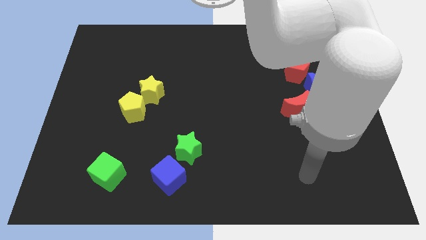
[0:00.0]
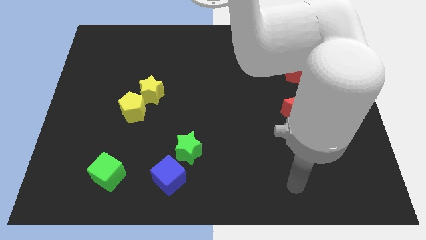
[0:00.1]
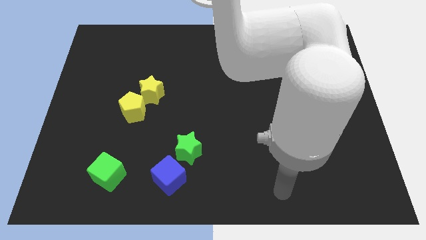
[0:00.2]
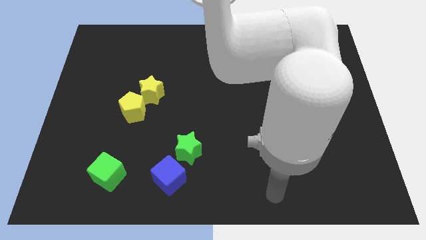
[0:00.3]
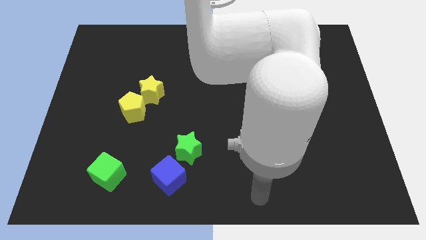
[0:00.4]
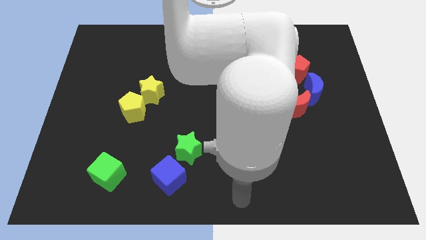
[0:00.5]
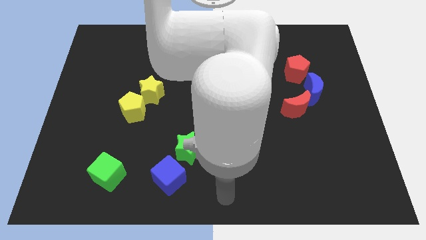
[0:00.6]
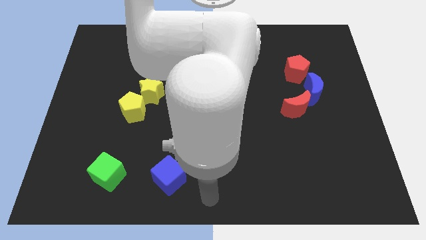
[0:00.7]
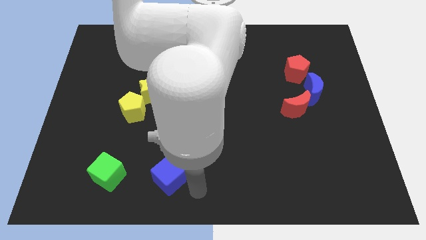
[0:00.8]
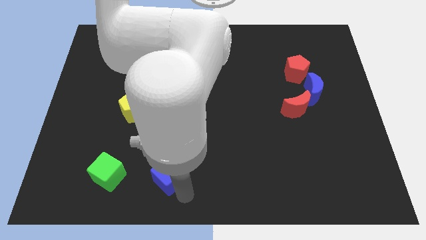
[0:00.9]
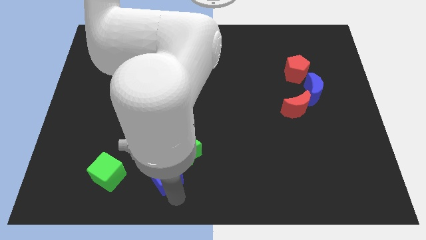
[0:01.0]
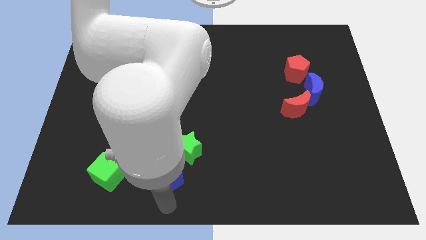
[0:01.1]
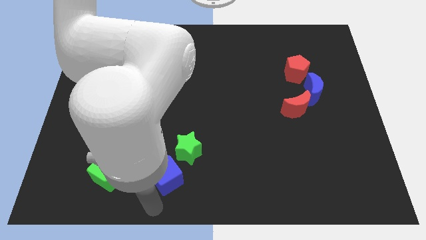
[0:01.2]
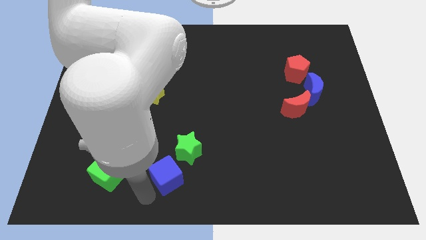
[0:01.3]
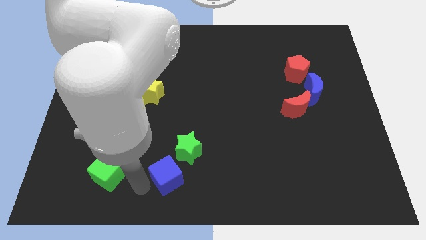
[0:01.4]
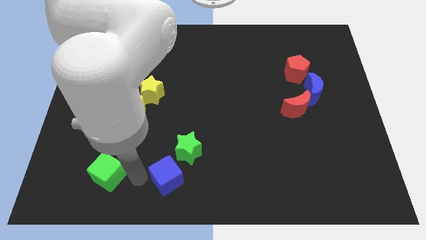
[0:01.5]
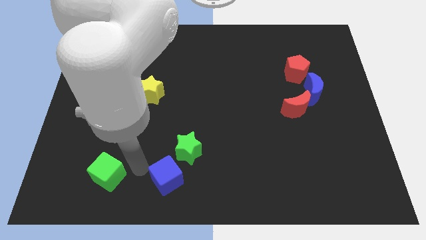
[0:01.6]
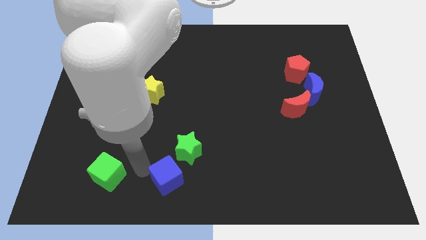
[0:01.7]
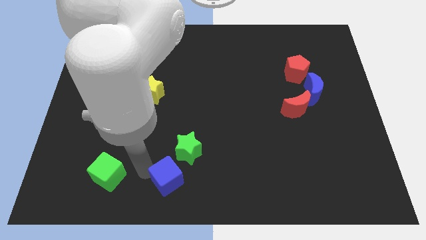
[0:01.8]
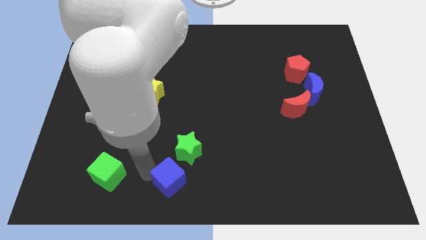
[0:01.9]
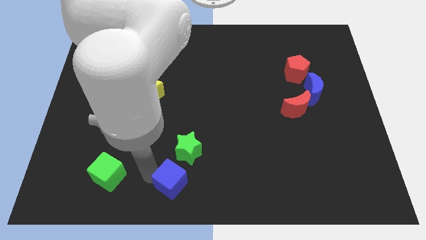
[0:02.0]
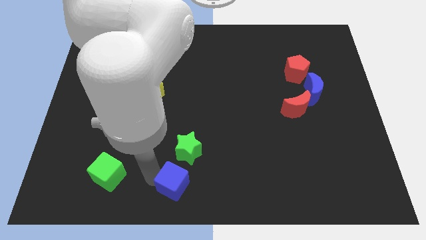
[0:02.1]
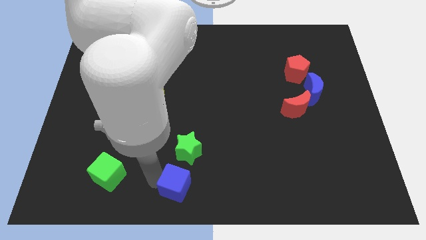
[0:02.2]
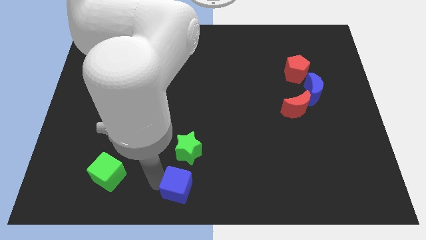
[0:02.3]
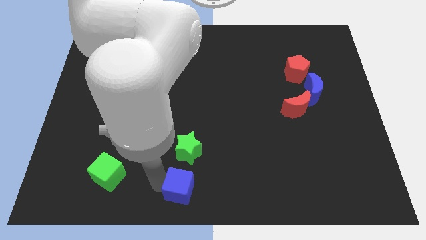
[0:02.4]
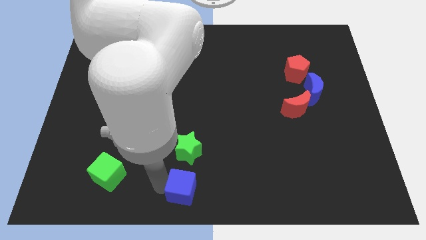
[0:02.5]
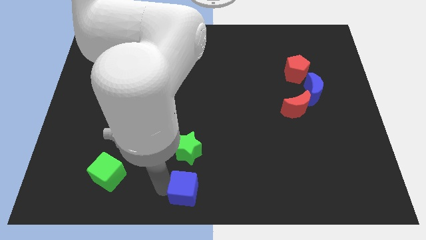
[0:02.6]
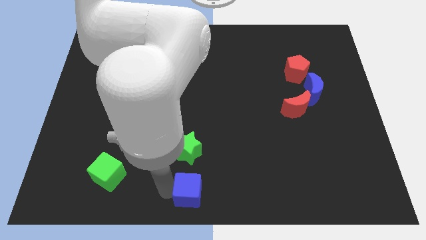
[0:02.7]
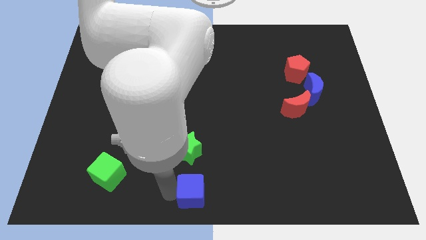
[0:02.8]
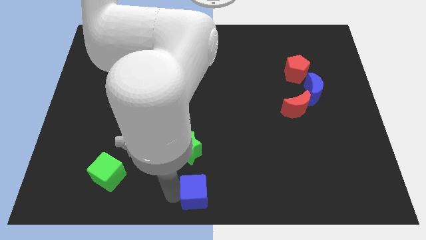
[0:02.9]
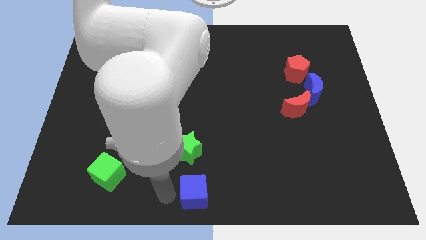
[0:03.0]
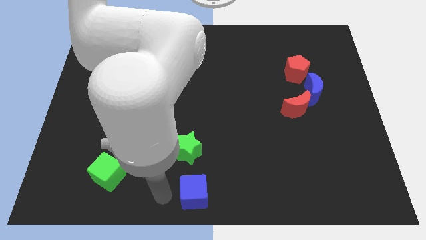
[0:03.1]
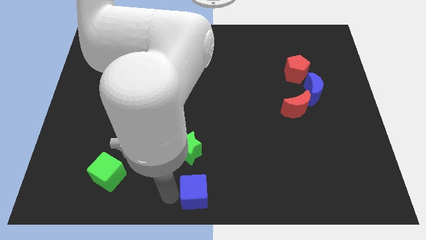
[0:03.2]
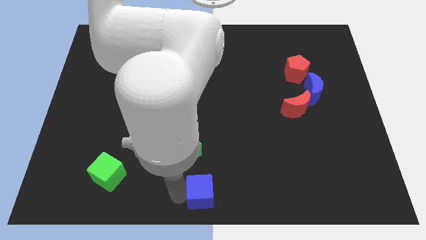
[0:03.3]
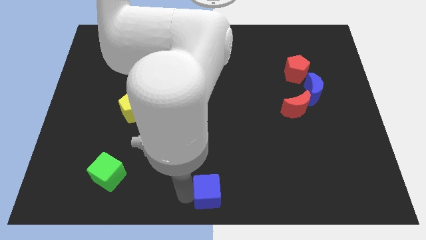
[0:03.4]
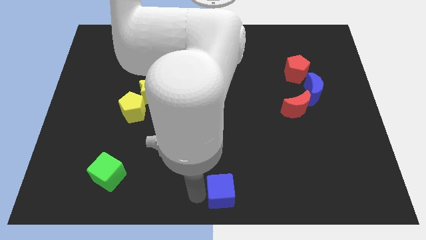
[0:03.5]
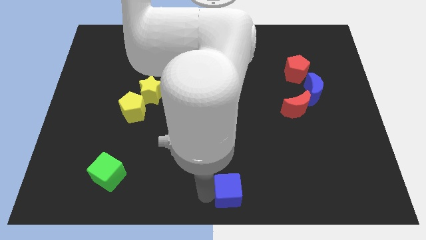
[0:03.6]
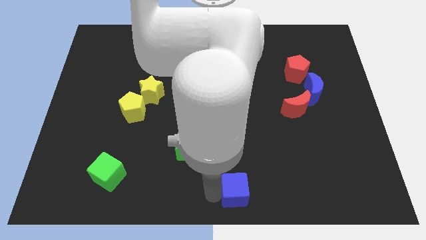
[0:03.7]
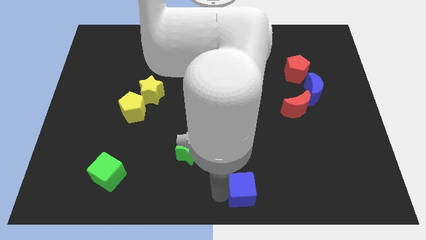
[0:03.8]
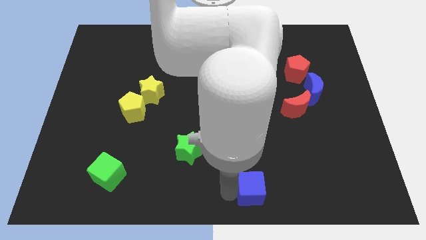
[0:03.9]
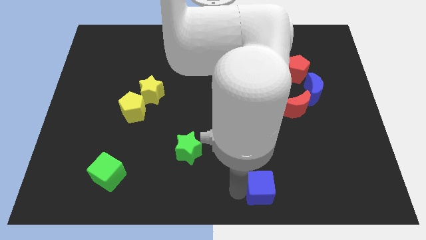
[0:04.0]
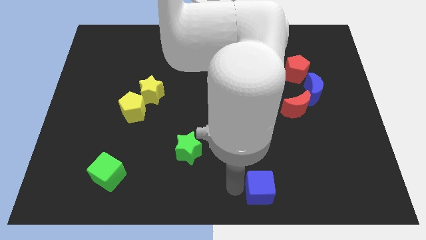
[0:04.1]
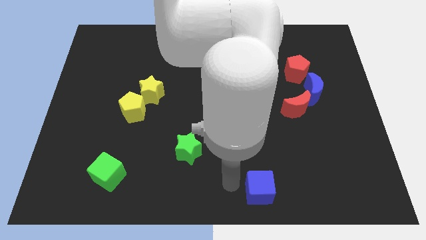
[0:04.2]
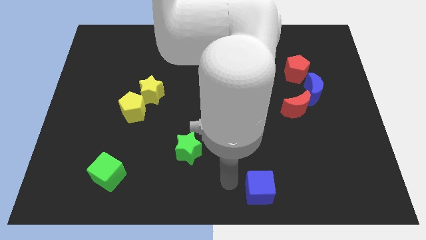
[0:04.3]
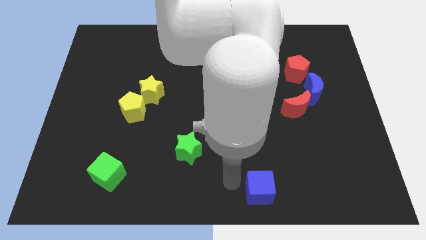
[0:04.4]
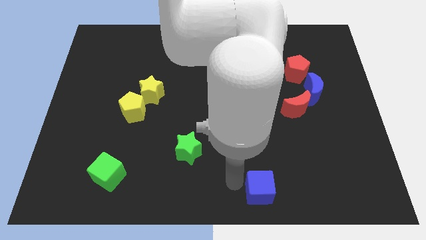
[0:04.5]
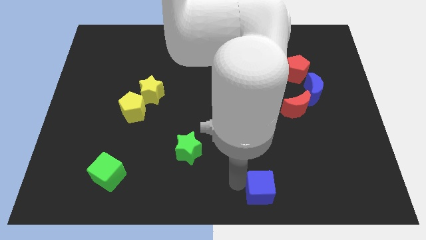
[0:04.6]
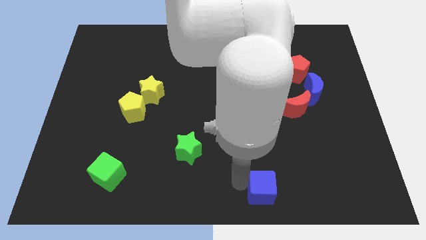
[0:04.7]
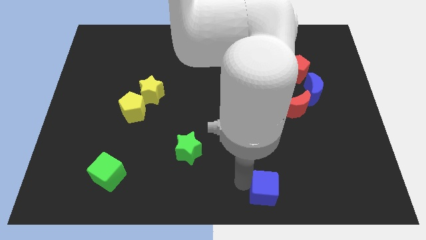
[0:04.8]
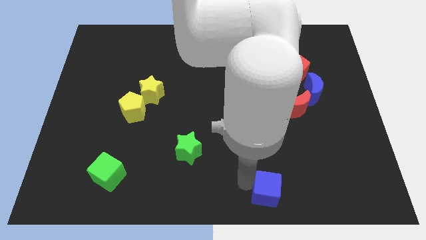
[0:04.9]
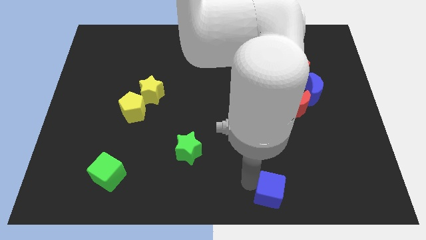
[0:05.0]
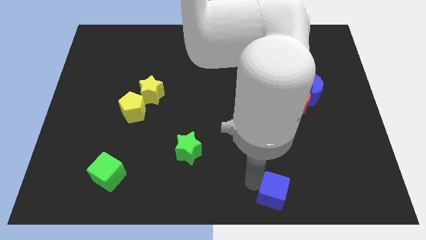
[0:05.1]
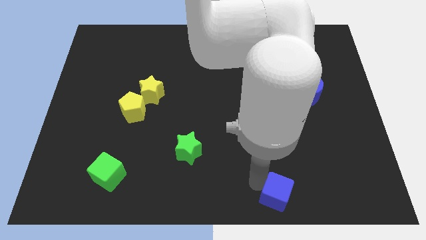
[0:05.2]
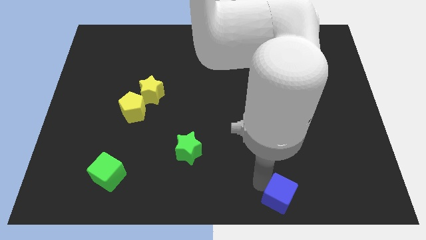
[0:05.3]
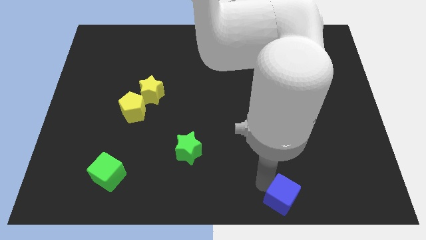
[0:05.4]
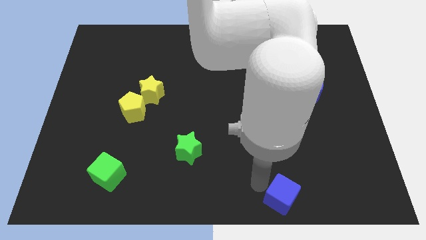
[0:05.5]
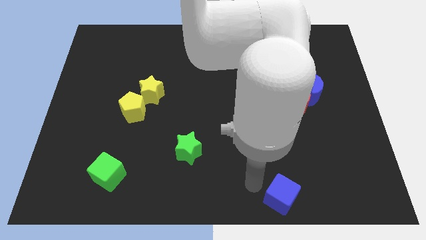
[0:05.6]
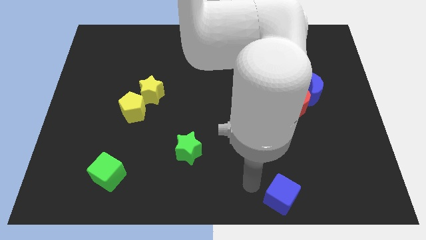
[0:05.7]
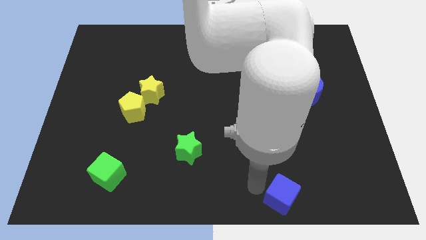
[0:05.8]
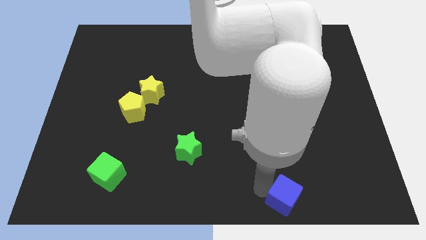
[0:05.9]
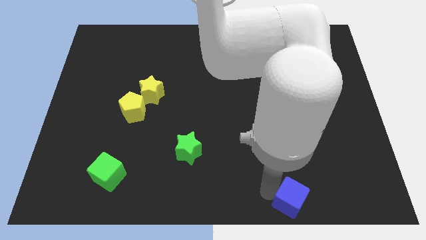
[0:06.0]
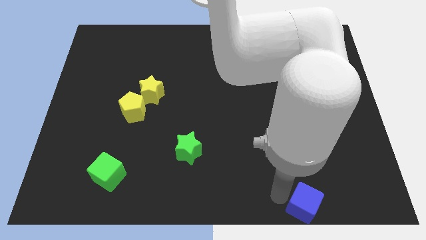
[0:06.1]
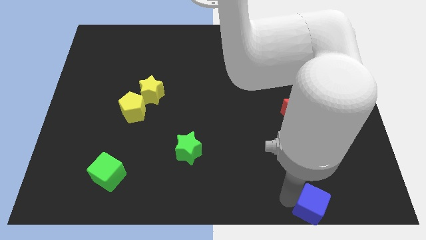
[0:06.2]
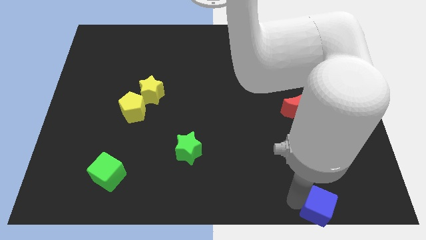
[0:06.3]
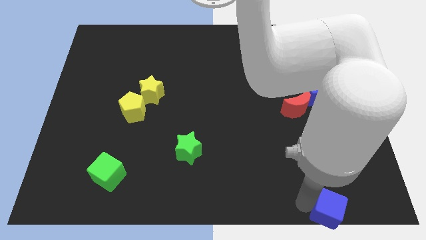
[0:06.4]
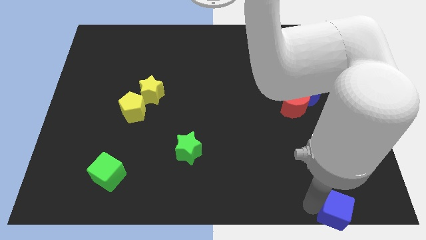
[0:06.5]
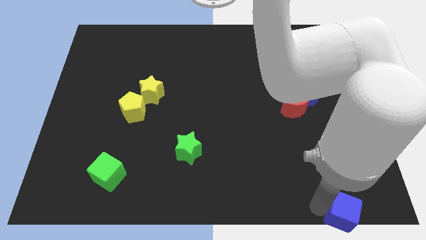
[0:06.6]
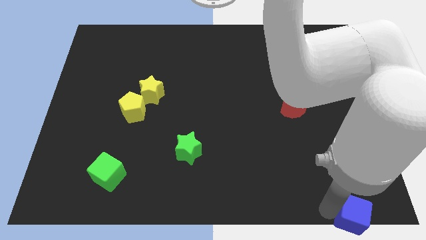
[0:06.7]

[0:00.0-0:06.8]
put the blue cube to the bottom right
